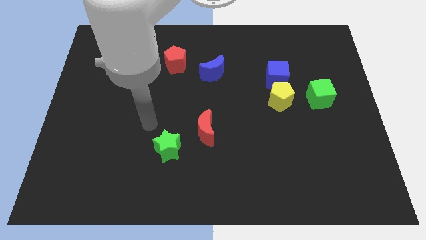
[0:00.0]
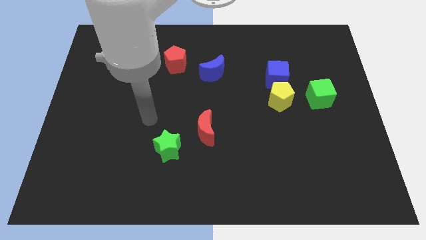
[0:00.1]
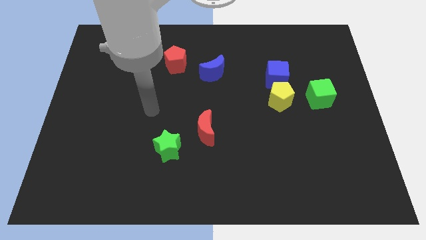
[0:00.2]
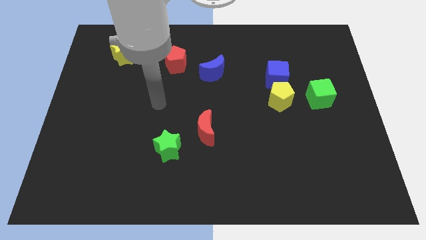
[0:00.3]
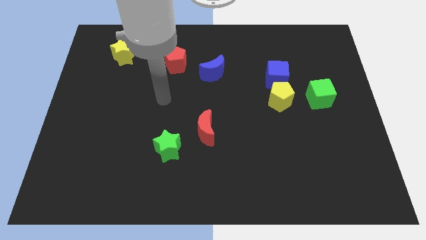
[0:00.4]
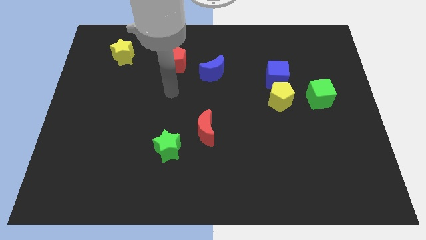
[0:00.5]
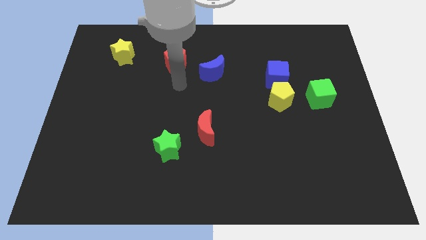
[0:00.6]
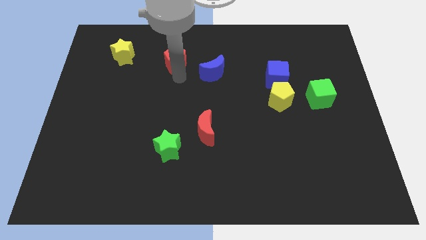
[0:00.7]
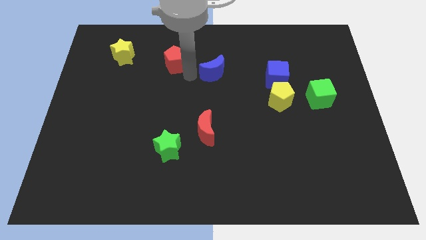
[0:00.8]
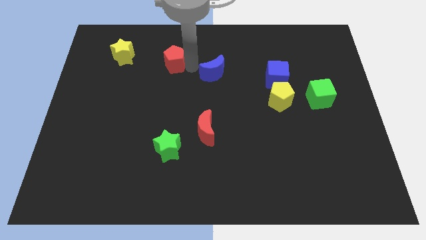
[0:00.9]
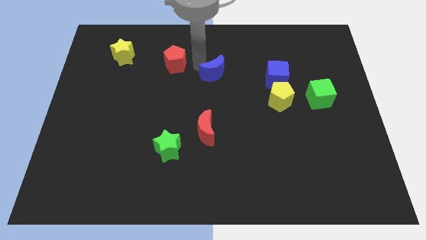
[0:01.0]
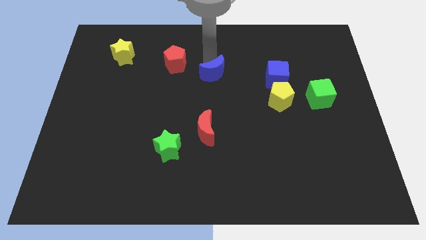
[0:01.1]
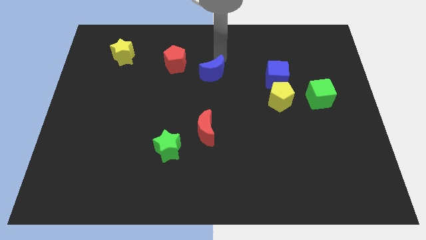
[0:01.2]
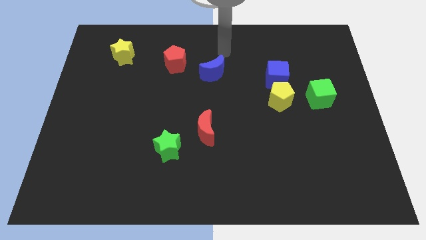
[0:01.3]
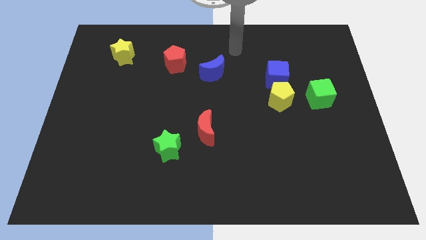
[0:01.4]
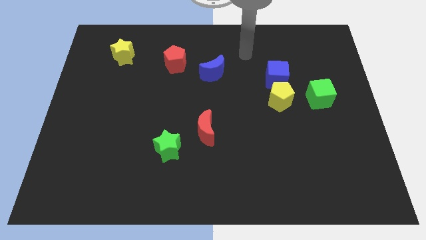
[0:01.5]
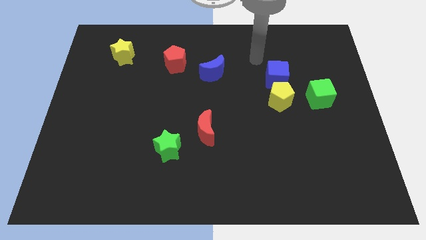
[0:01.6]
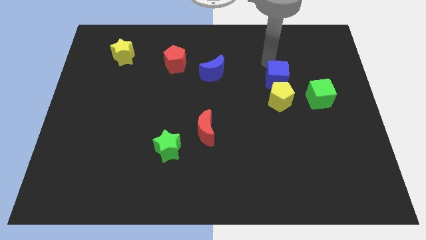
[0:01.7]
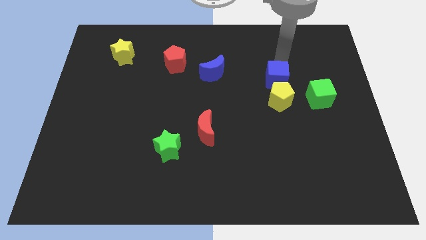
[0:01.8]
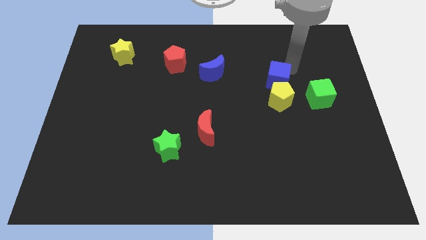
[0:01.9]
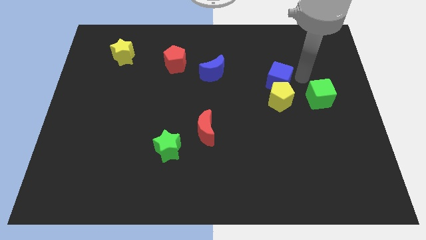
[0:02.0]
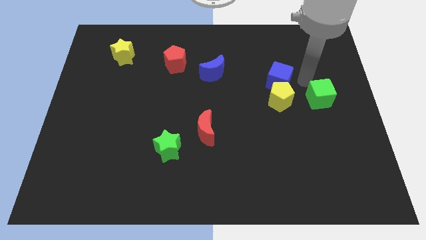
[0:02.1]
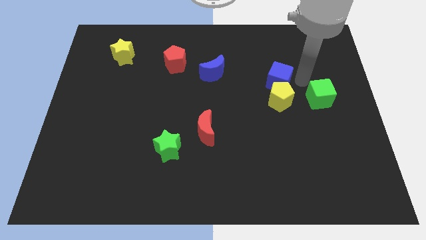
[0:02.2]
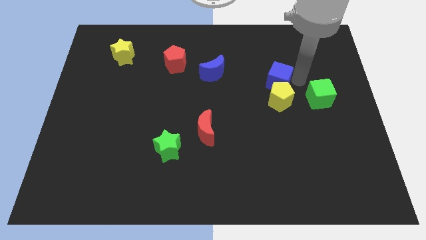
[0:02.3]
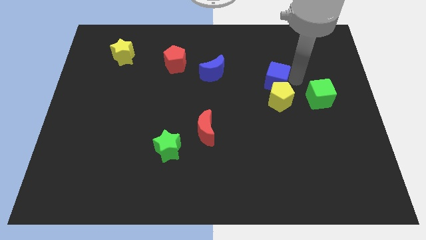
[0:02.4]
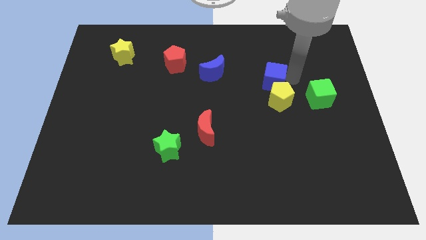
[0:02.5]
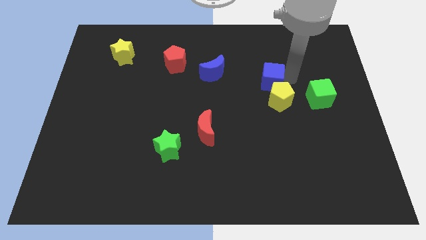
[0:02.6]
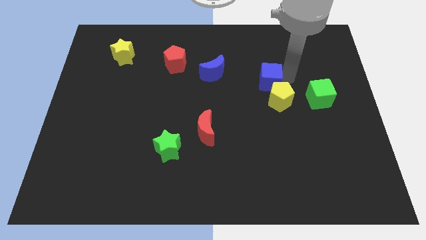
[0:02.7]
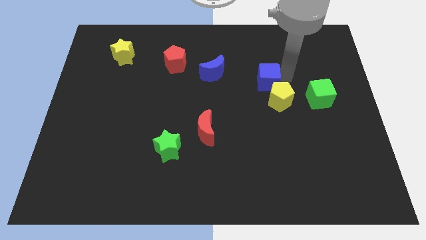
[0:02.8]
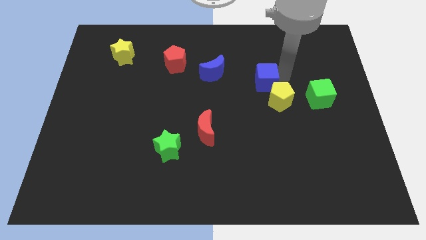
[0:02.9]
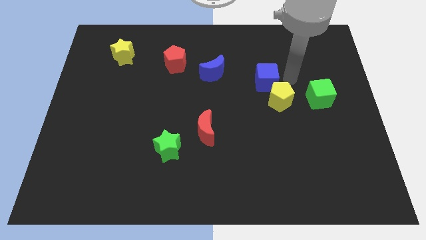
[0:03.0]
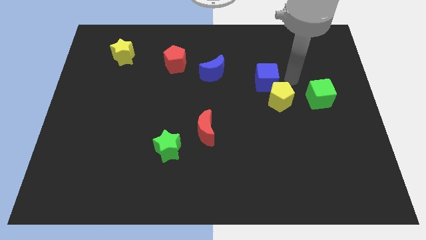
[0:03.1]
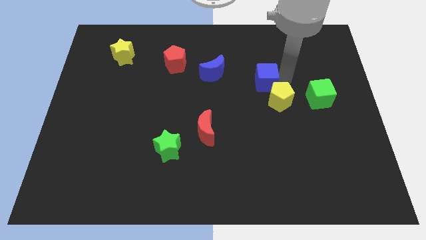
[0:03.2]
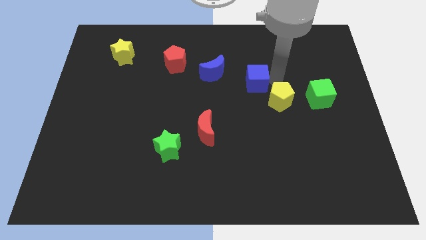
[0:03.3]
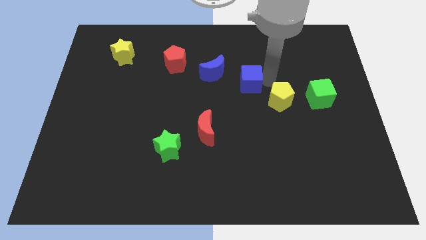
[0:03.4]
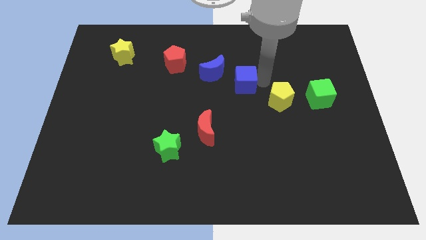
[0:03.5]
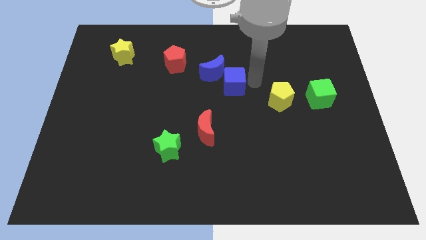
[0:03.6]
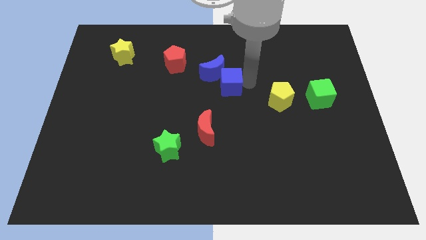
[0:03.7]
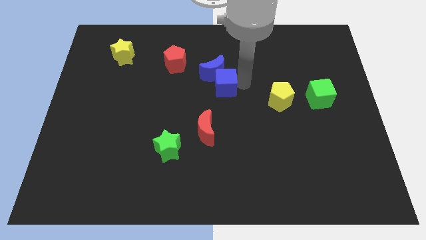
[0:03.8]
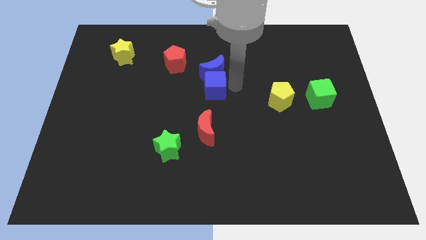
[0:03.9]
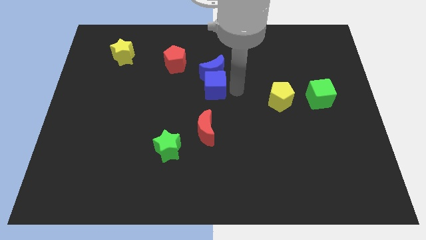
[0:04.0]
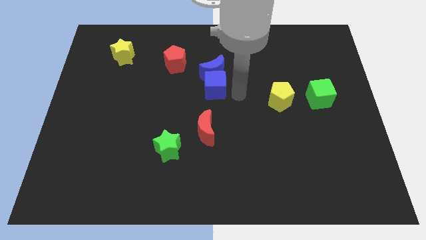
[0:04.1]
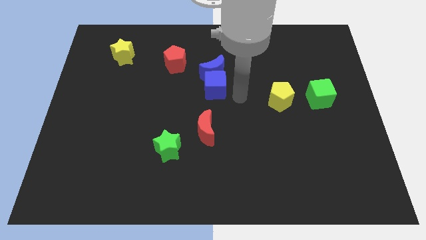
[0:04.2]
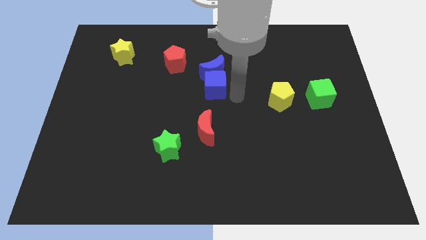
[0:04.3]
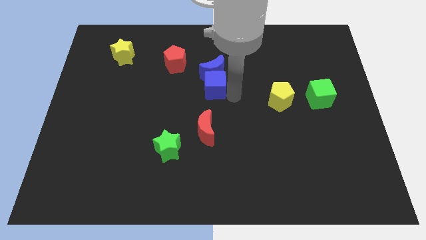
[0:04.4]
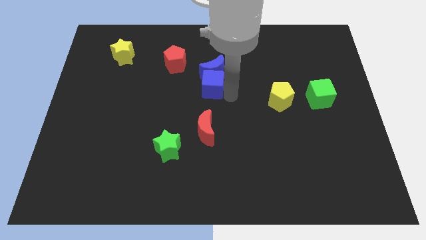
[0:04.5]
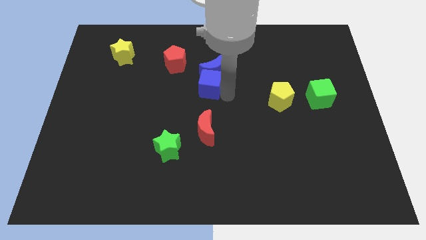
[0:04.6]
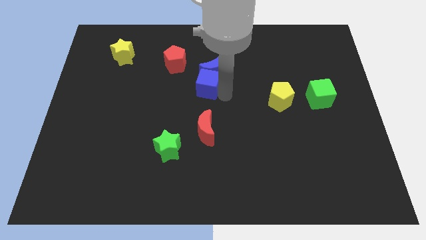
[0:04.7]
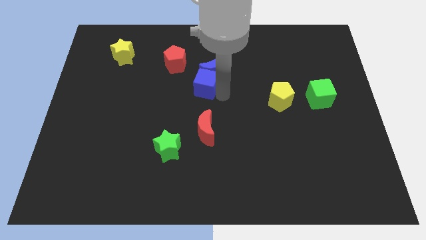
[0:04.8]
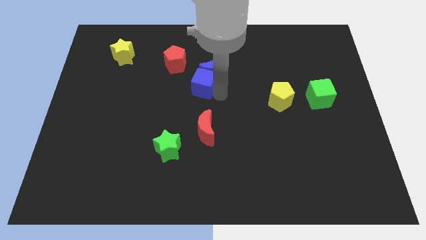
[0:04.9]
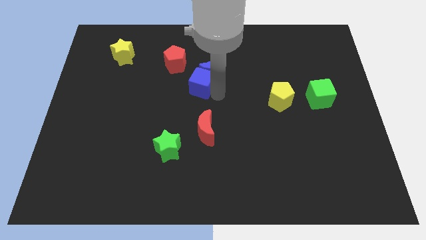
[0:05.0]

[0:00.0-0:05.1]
move the blue cube to the left of the blue moon

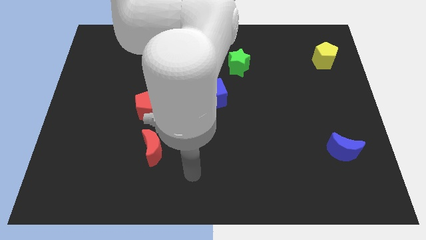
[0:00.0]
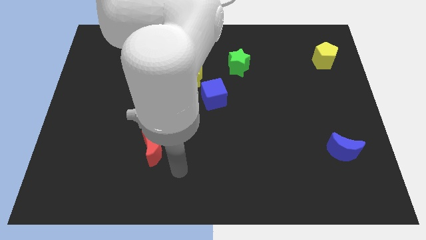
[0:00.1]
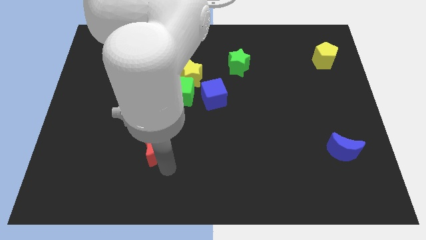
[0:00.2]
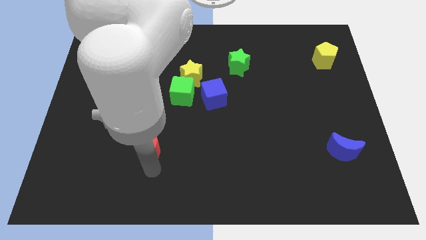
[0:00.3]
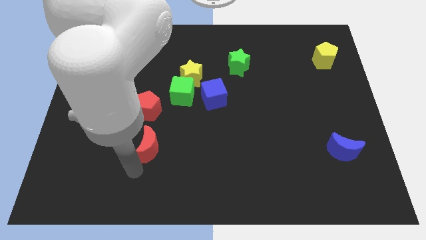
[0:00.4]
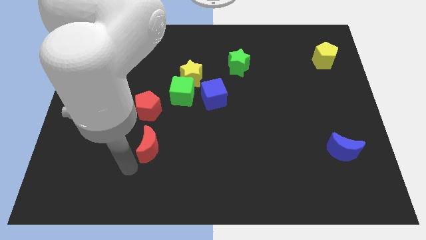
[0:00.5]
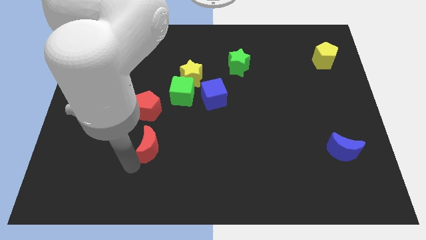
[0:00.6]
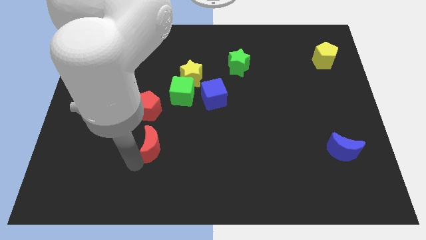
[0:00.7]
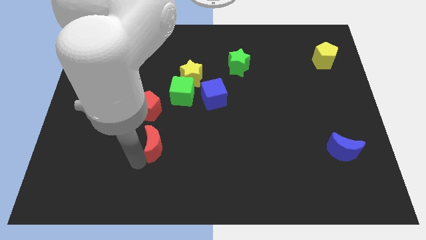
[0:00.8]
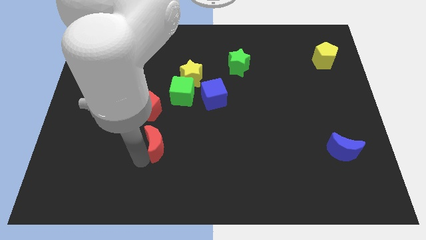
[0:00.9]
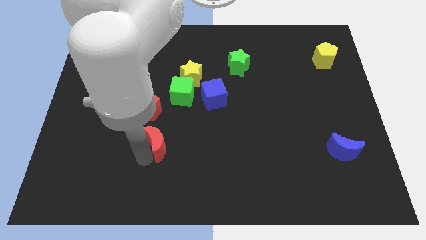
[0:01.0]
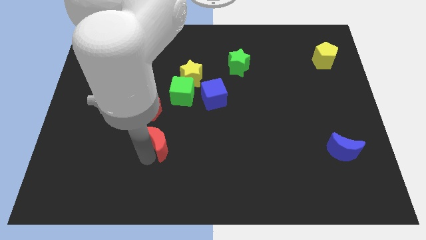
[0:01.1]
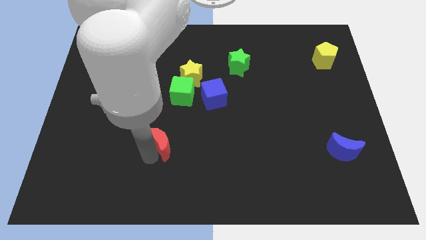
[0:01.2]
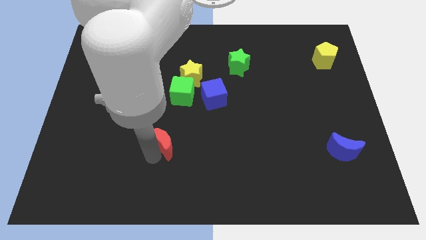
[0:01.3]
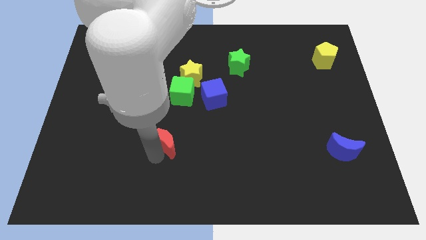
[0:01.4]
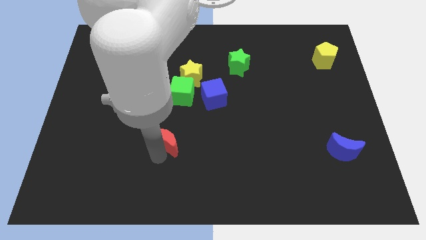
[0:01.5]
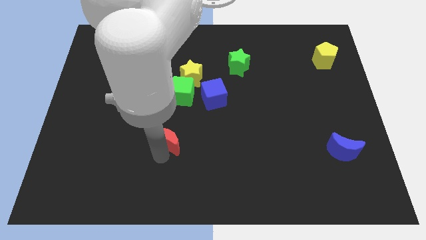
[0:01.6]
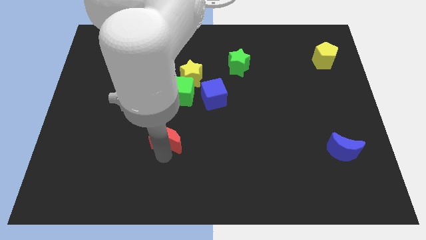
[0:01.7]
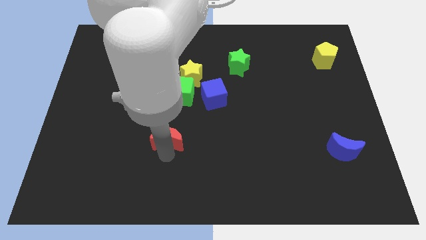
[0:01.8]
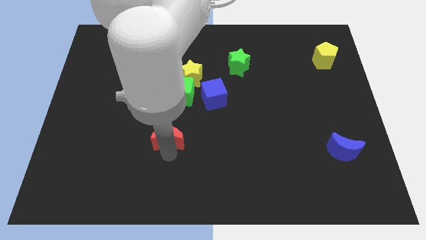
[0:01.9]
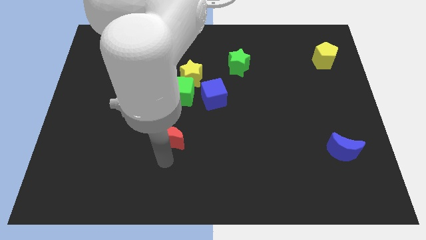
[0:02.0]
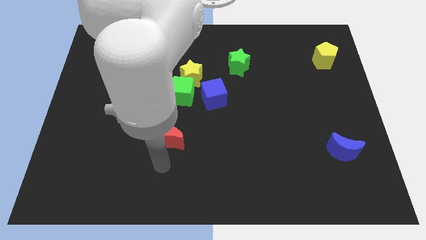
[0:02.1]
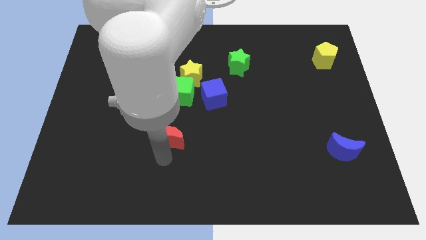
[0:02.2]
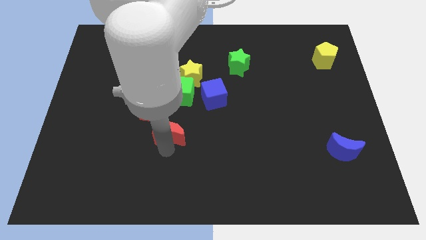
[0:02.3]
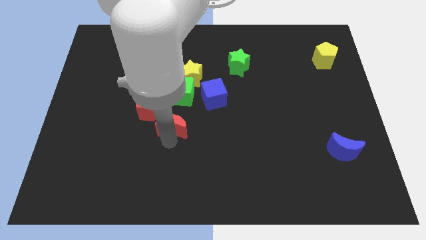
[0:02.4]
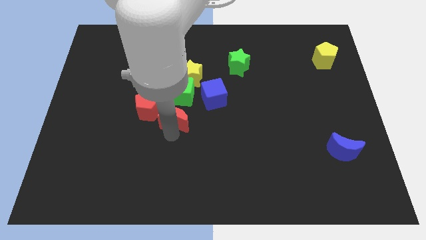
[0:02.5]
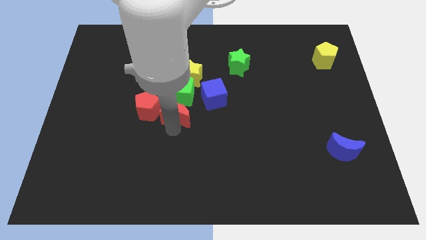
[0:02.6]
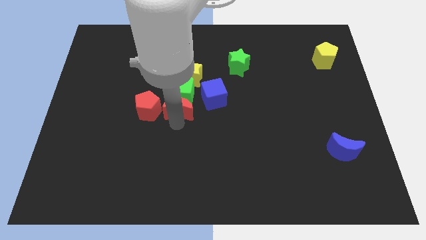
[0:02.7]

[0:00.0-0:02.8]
move the red moon to the left side of the blue cube
